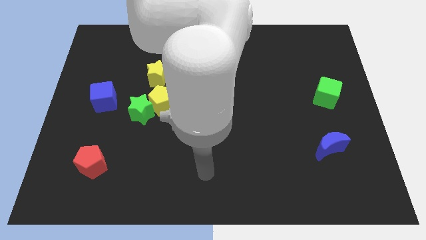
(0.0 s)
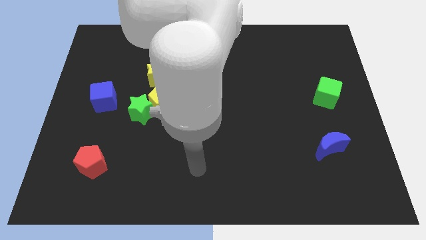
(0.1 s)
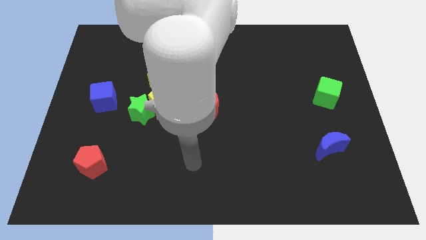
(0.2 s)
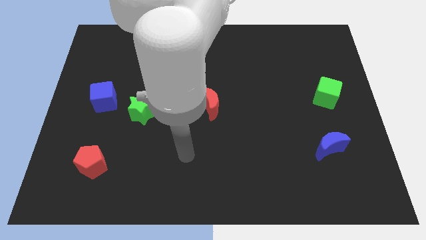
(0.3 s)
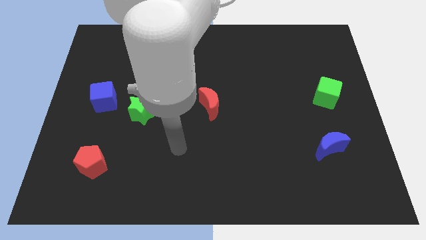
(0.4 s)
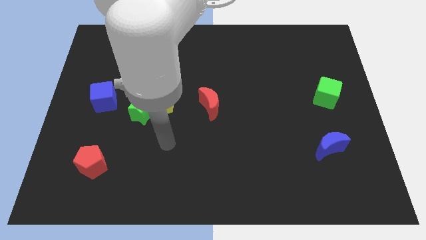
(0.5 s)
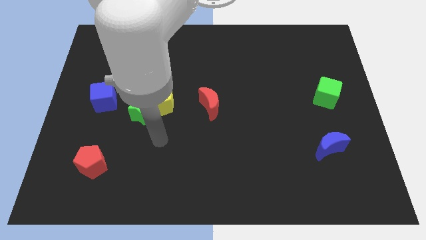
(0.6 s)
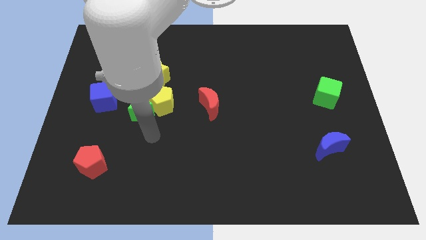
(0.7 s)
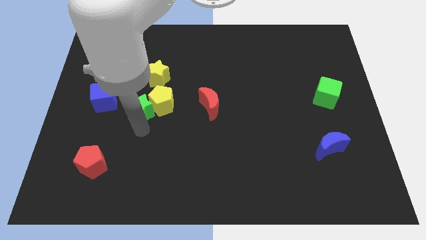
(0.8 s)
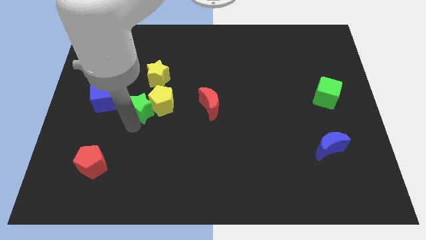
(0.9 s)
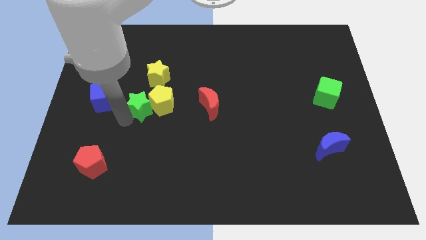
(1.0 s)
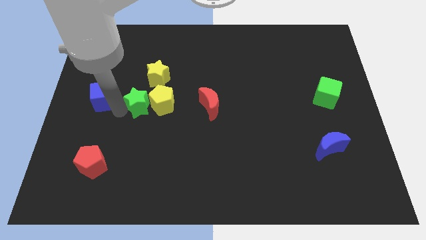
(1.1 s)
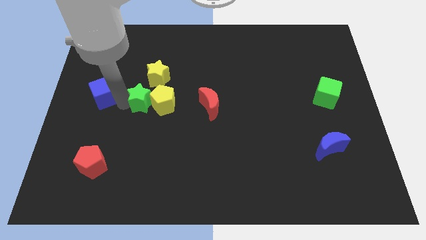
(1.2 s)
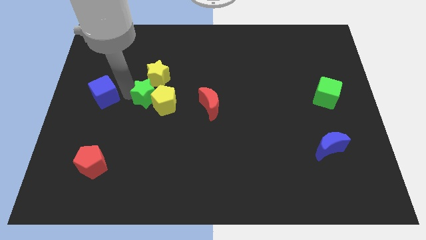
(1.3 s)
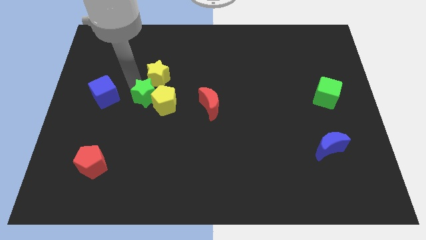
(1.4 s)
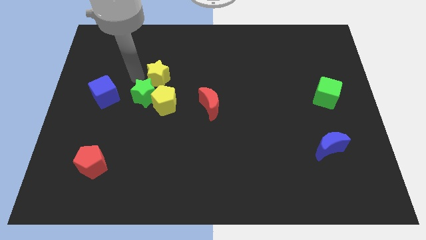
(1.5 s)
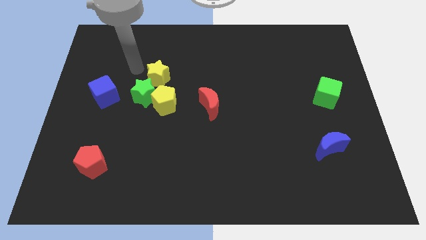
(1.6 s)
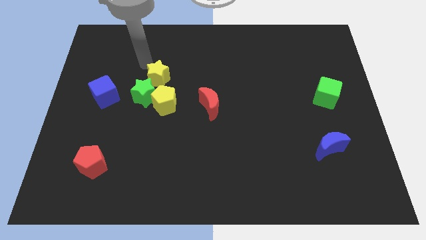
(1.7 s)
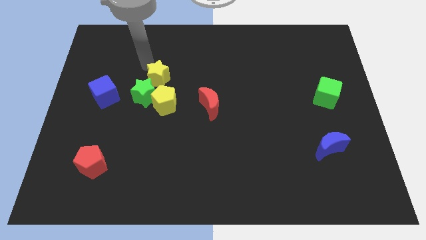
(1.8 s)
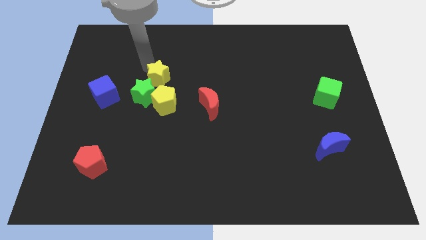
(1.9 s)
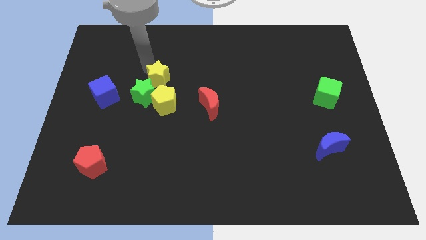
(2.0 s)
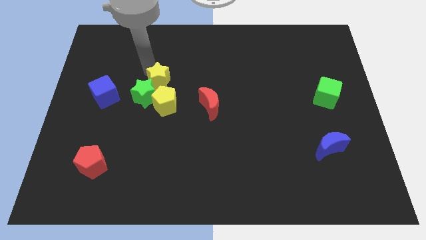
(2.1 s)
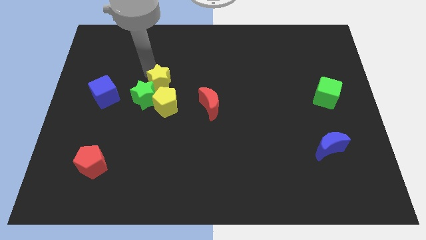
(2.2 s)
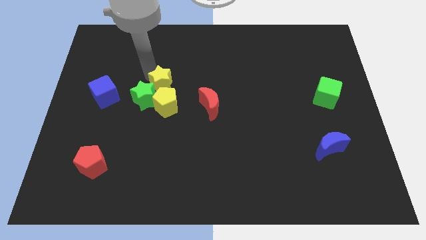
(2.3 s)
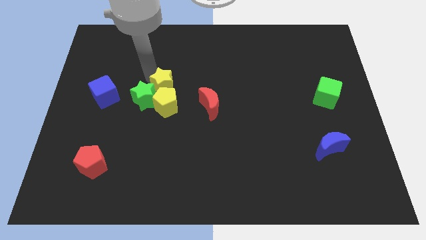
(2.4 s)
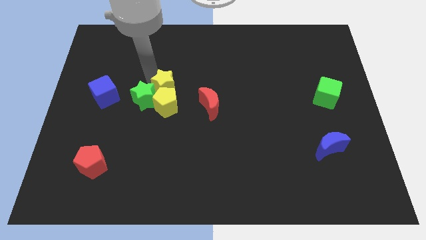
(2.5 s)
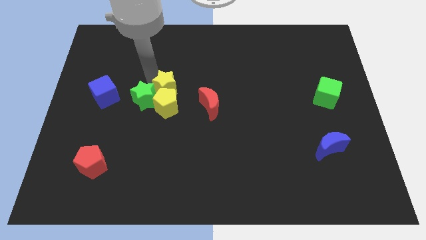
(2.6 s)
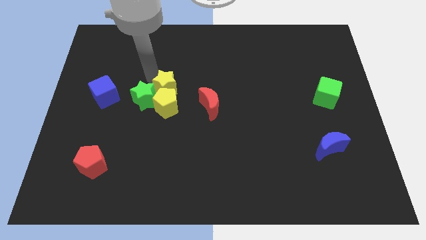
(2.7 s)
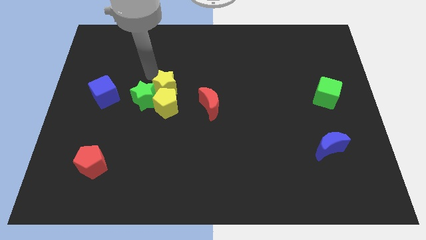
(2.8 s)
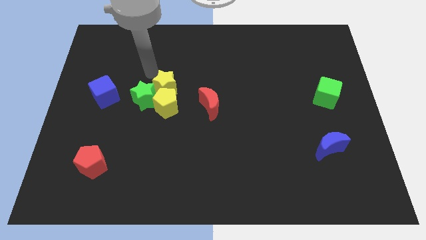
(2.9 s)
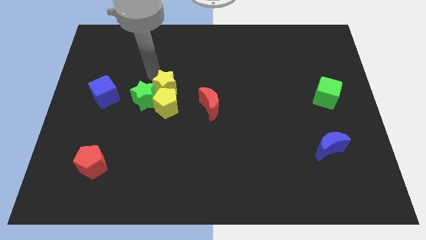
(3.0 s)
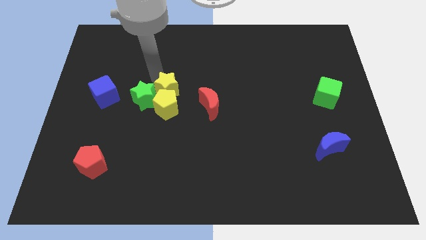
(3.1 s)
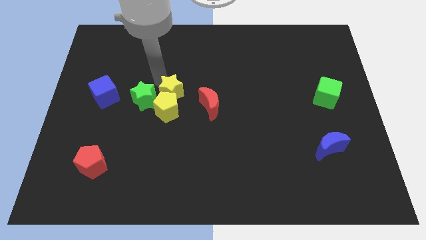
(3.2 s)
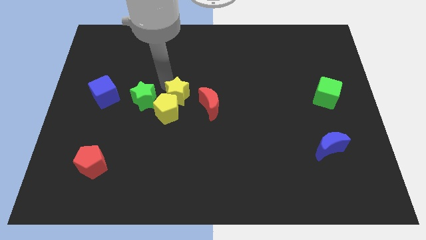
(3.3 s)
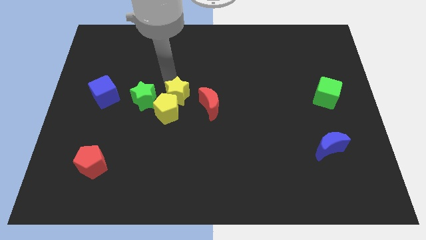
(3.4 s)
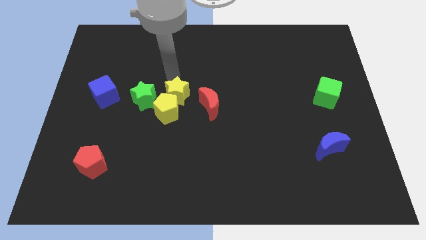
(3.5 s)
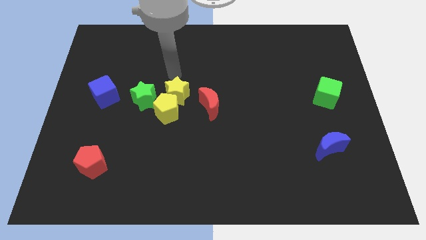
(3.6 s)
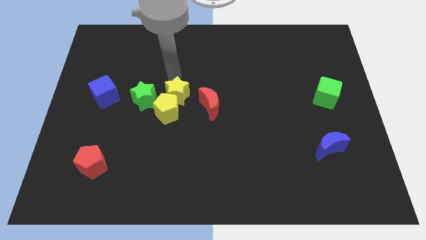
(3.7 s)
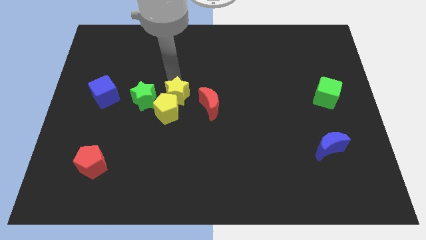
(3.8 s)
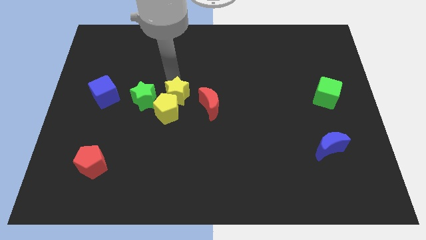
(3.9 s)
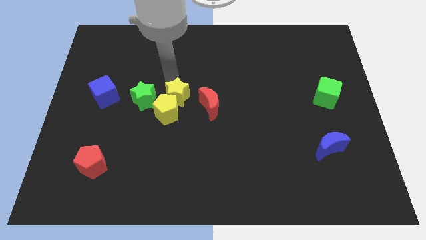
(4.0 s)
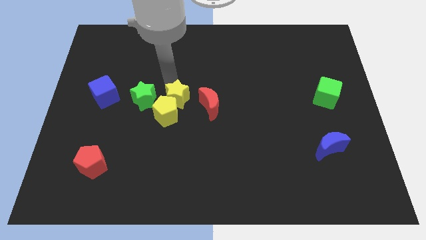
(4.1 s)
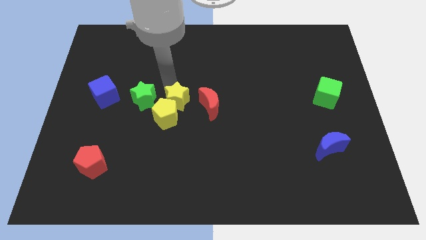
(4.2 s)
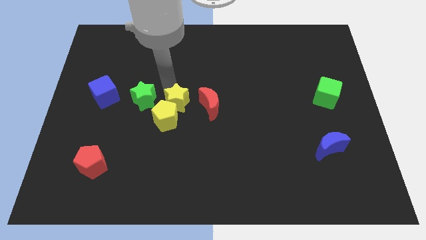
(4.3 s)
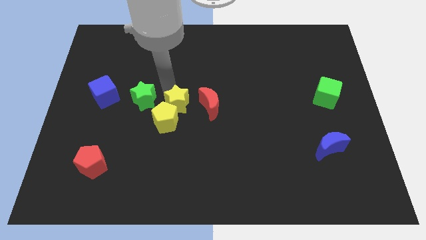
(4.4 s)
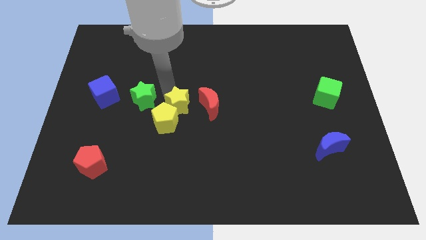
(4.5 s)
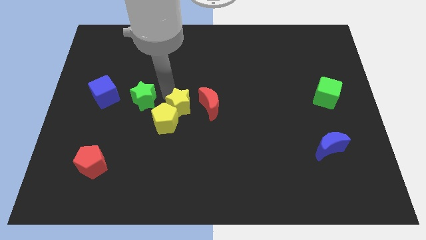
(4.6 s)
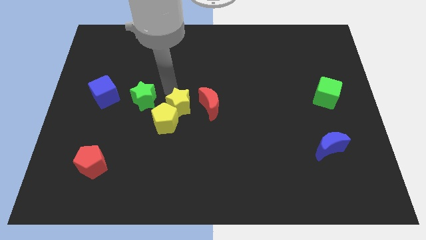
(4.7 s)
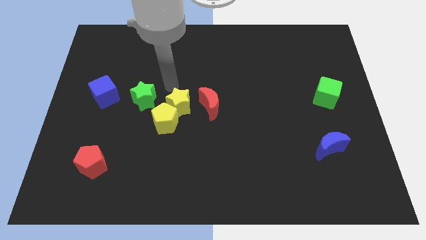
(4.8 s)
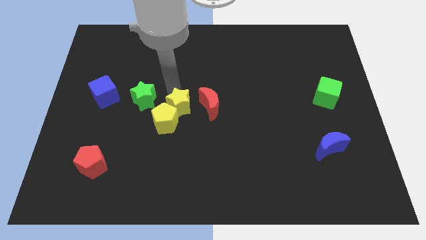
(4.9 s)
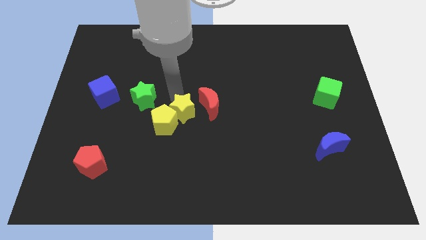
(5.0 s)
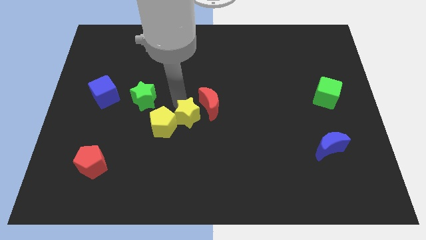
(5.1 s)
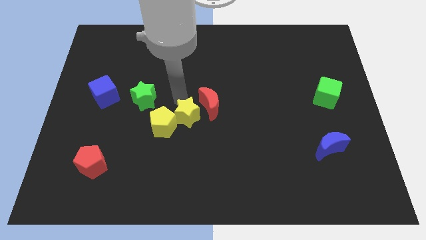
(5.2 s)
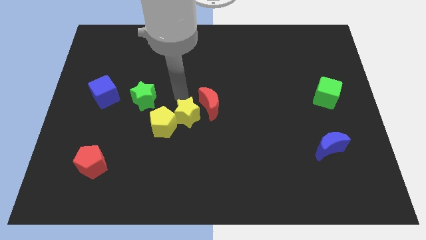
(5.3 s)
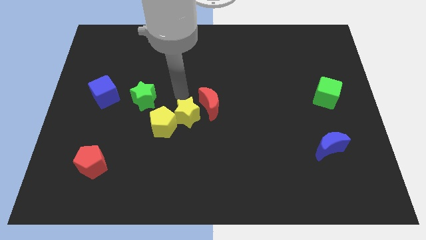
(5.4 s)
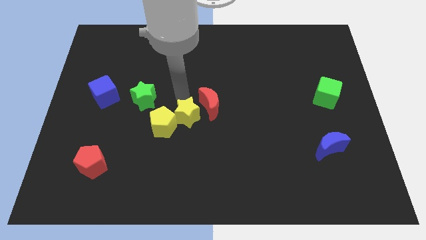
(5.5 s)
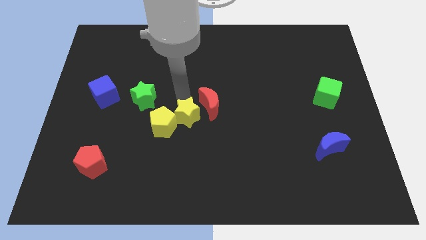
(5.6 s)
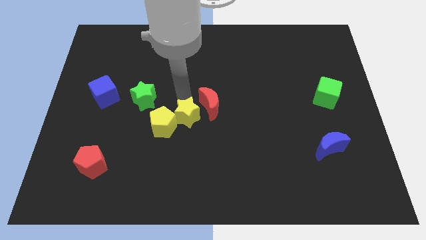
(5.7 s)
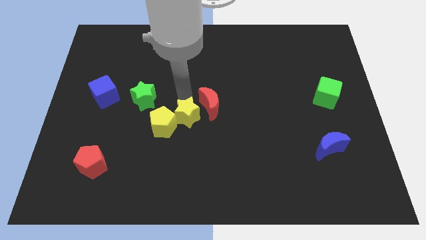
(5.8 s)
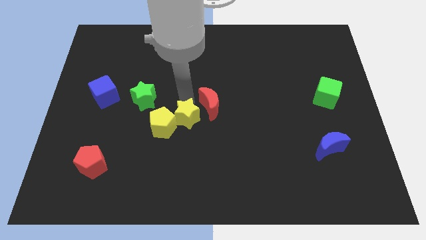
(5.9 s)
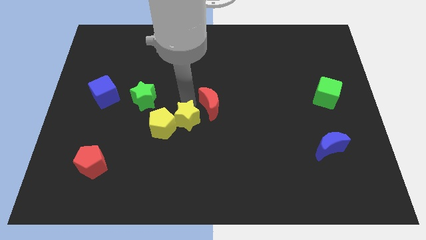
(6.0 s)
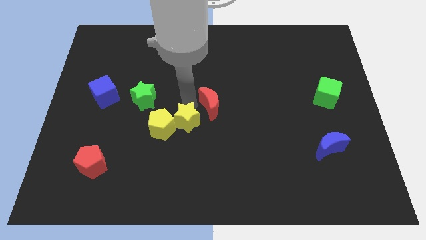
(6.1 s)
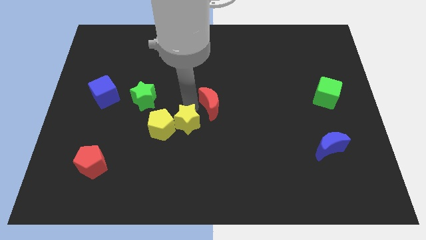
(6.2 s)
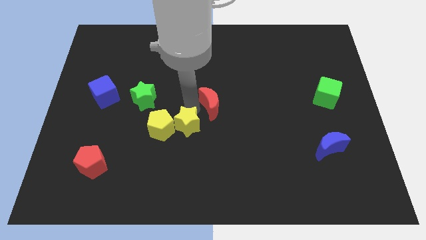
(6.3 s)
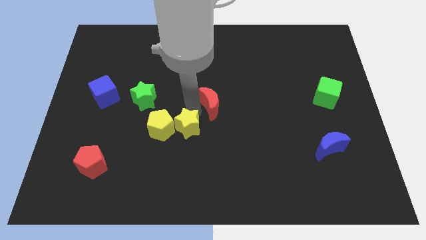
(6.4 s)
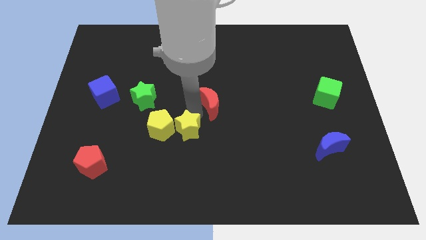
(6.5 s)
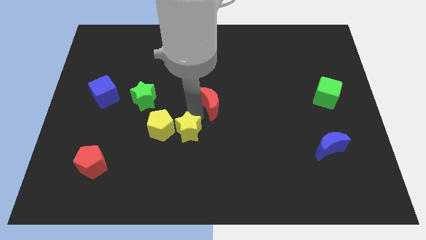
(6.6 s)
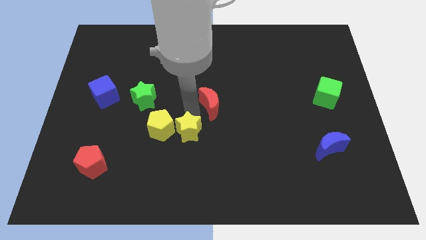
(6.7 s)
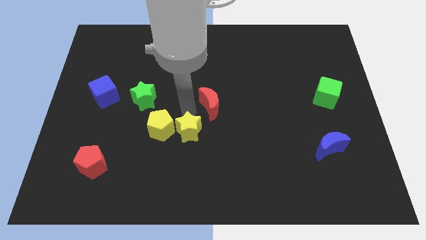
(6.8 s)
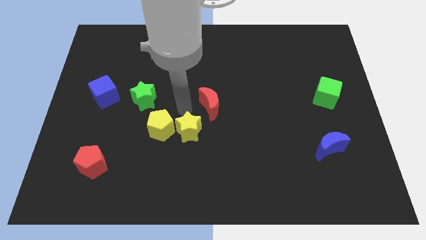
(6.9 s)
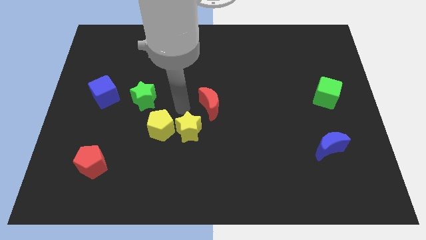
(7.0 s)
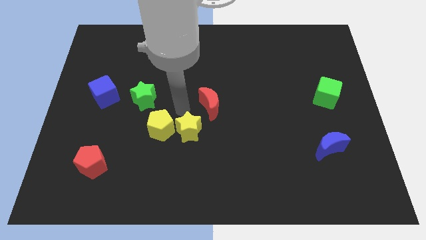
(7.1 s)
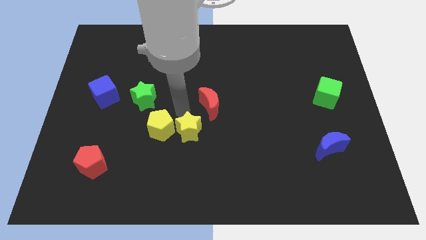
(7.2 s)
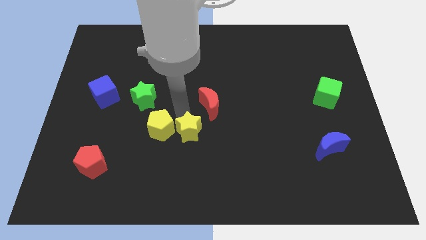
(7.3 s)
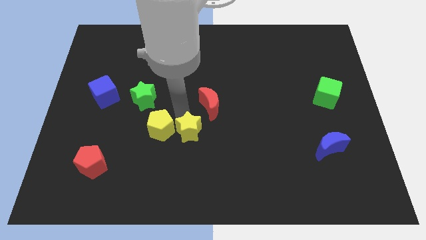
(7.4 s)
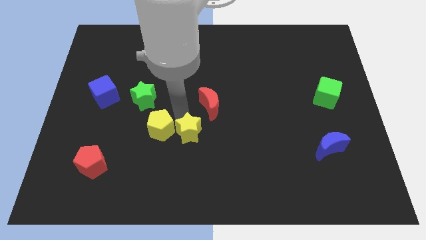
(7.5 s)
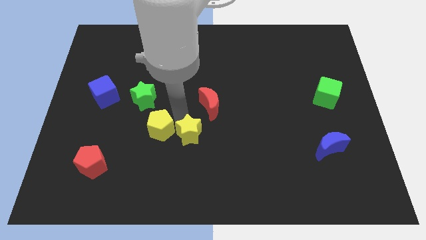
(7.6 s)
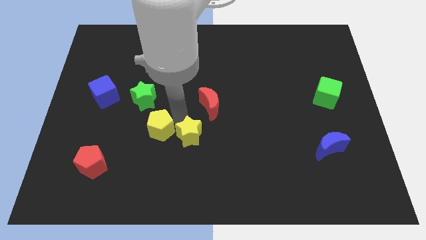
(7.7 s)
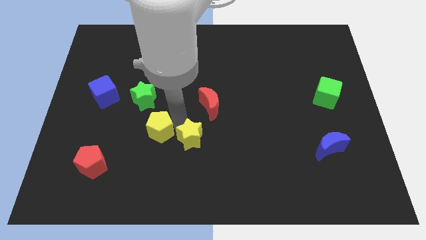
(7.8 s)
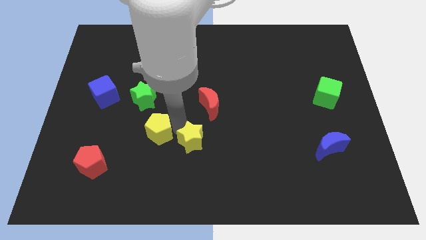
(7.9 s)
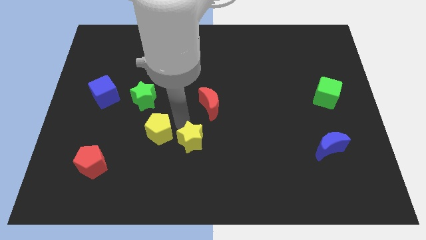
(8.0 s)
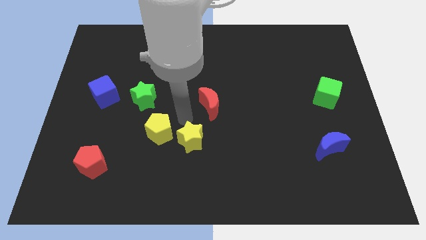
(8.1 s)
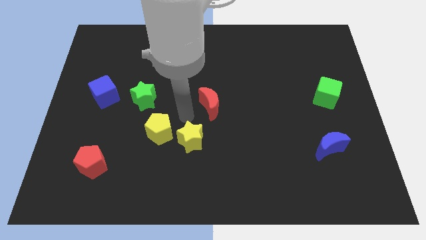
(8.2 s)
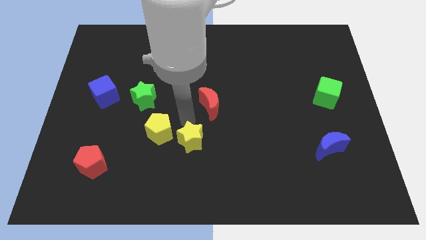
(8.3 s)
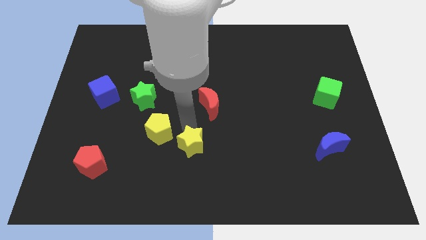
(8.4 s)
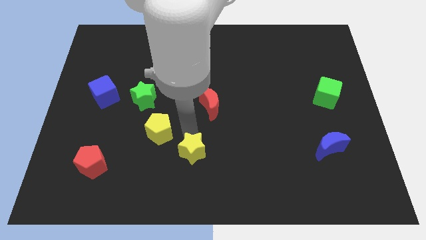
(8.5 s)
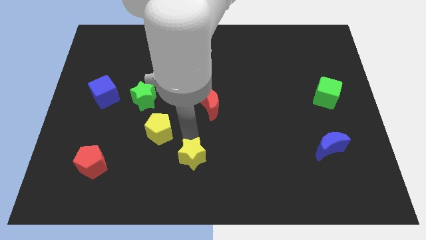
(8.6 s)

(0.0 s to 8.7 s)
slide the yellow star to the bottom side
